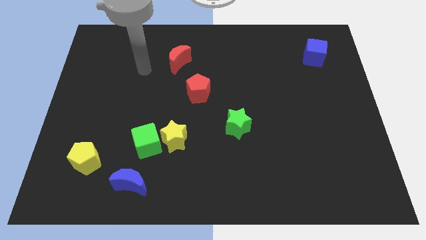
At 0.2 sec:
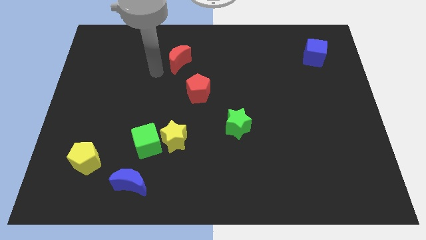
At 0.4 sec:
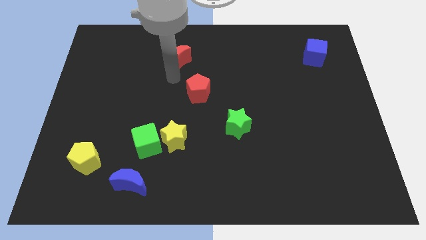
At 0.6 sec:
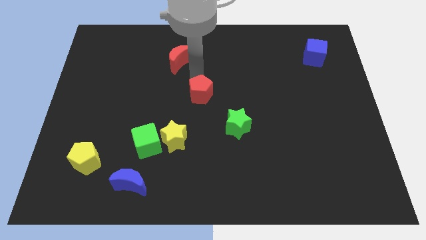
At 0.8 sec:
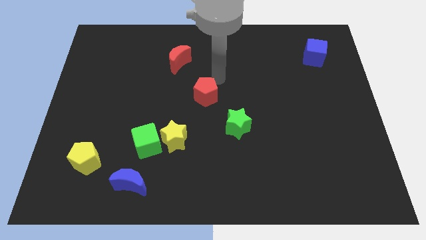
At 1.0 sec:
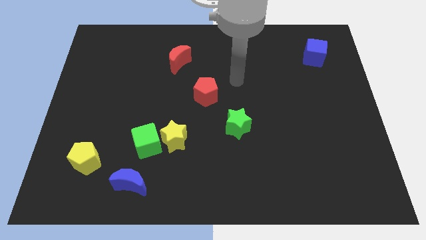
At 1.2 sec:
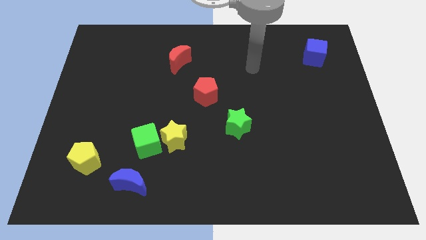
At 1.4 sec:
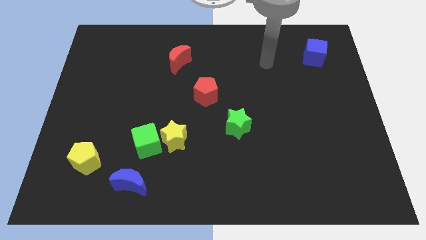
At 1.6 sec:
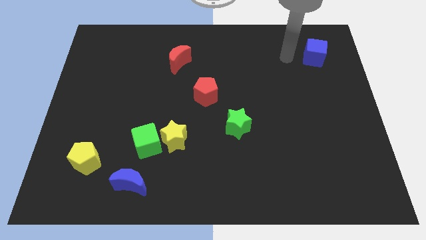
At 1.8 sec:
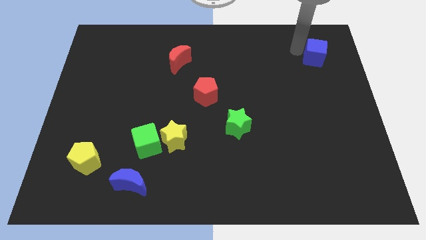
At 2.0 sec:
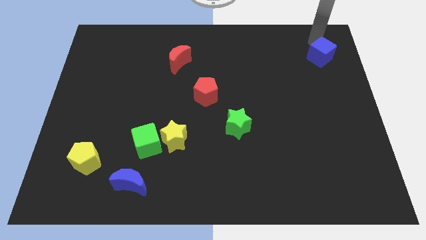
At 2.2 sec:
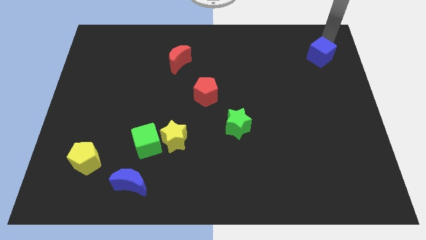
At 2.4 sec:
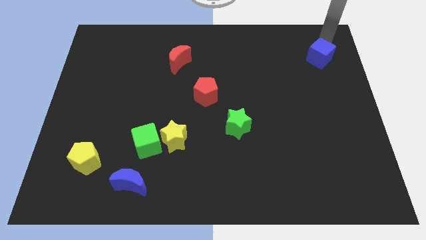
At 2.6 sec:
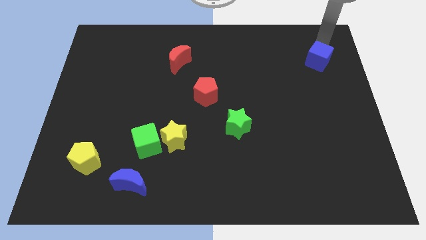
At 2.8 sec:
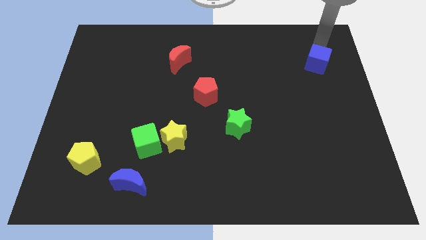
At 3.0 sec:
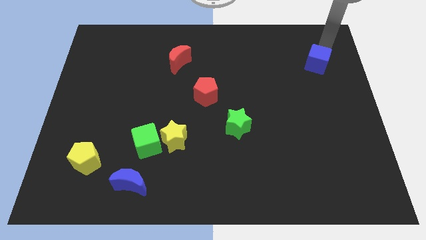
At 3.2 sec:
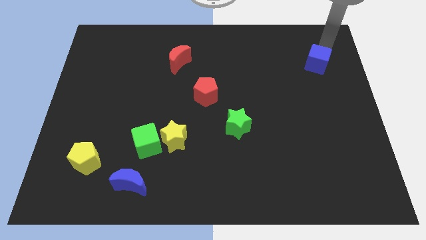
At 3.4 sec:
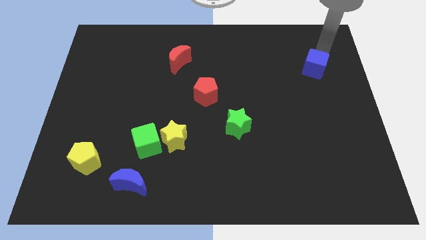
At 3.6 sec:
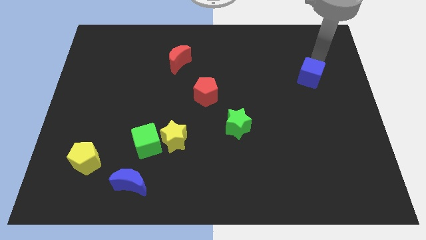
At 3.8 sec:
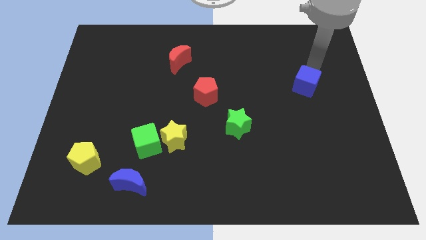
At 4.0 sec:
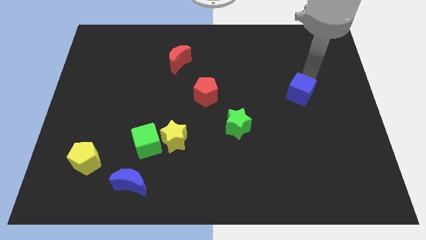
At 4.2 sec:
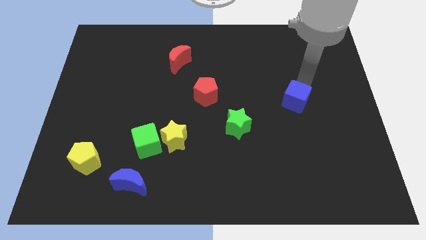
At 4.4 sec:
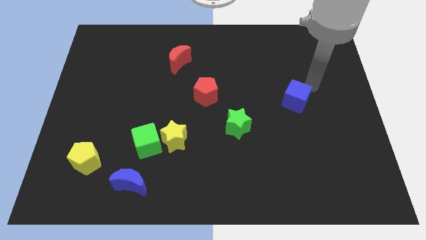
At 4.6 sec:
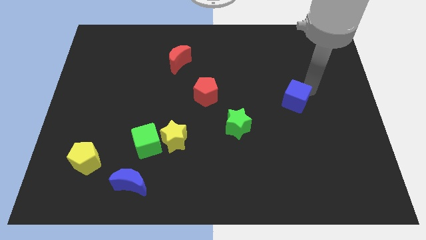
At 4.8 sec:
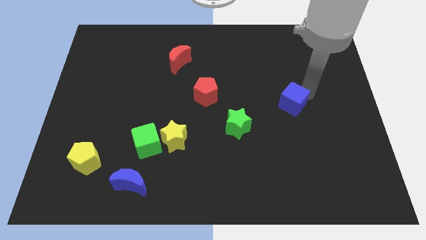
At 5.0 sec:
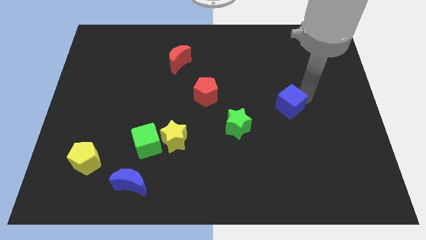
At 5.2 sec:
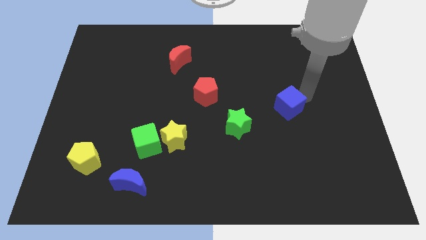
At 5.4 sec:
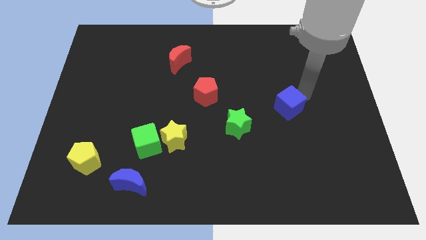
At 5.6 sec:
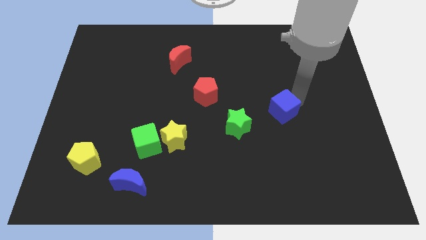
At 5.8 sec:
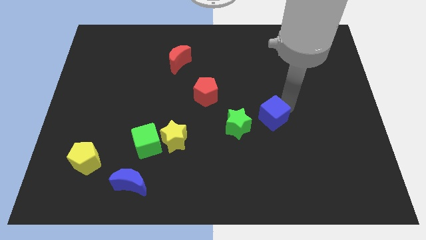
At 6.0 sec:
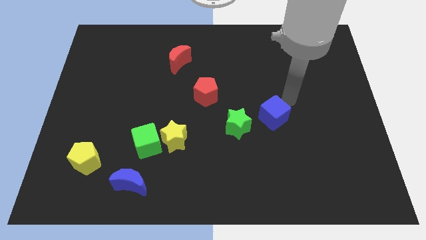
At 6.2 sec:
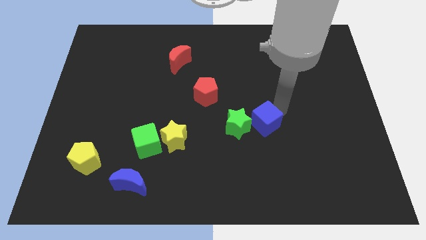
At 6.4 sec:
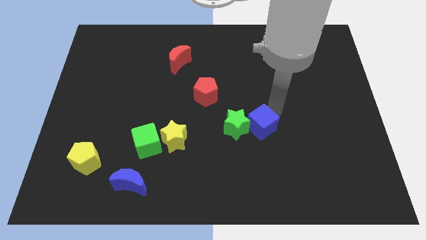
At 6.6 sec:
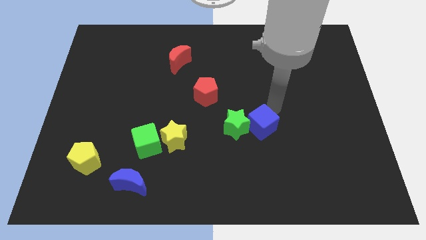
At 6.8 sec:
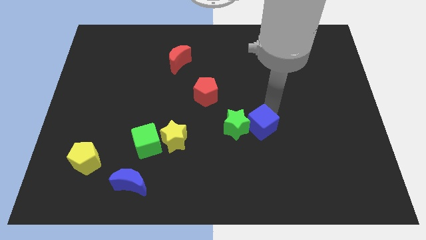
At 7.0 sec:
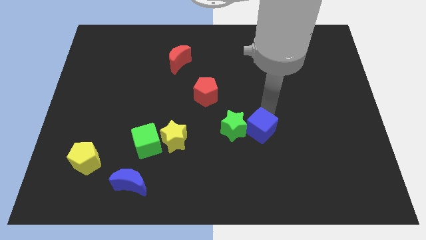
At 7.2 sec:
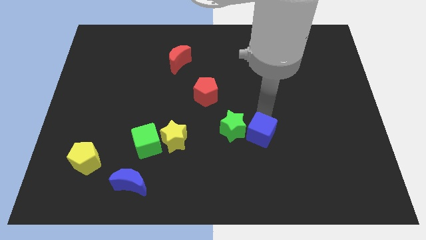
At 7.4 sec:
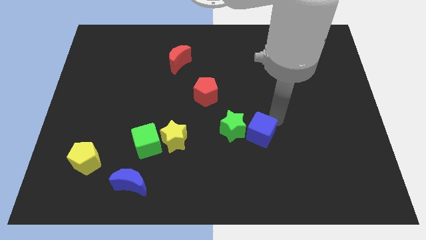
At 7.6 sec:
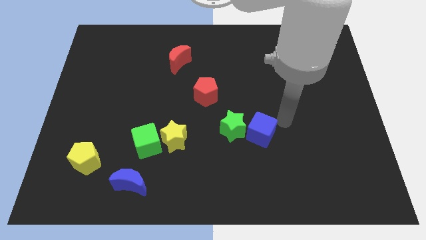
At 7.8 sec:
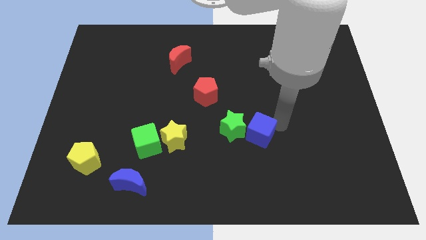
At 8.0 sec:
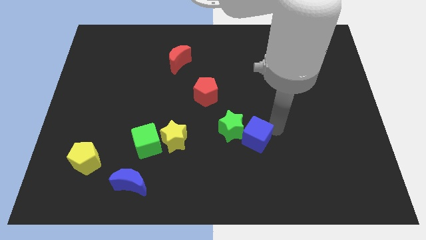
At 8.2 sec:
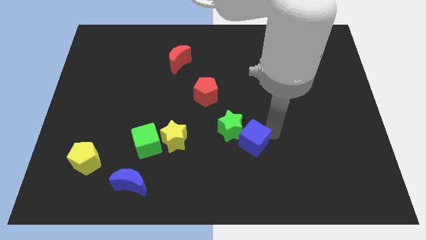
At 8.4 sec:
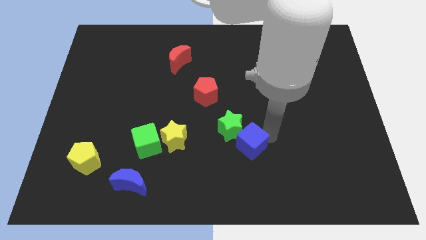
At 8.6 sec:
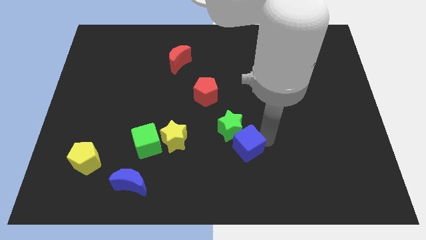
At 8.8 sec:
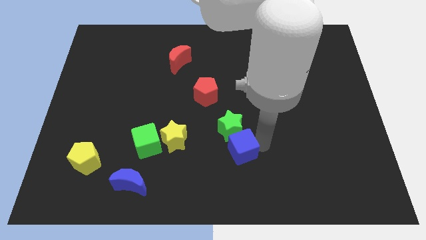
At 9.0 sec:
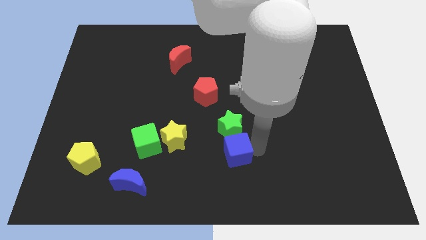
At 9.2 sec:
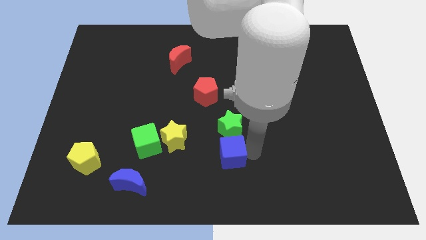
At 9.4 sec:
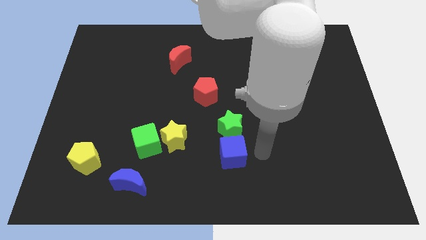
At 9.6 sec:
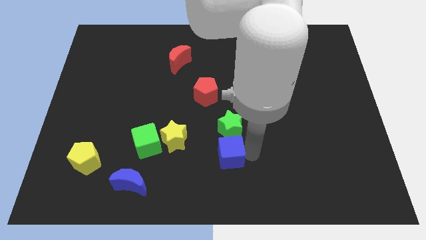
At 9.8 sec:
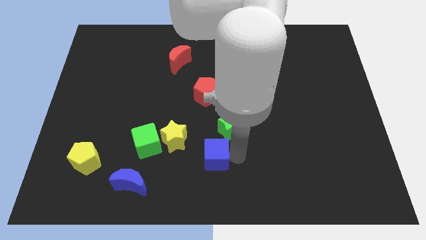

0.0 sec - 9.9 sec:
move the blue cube right of the green cube

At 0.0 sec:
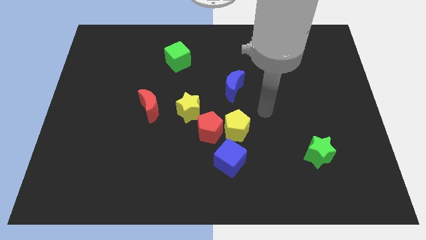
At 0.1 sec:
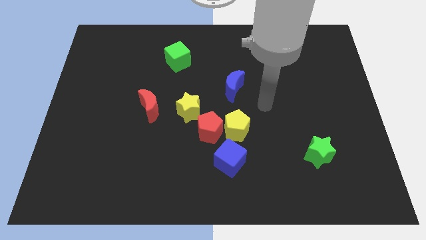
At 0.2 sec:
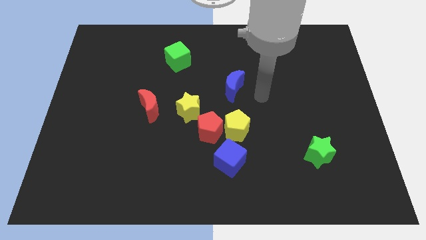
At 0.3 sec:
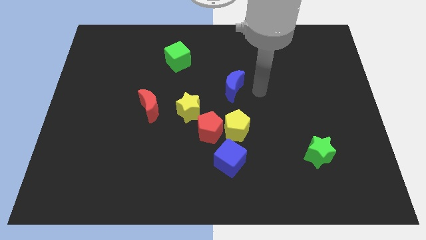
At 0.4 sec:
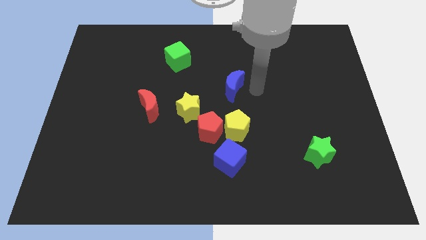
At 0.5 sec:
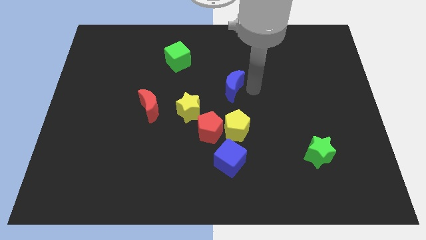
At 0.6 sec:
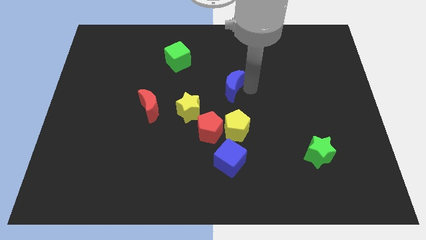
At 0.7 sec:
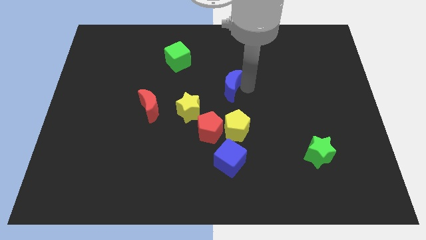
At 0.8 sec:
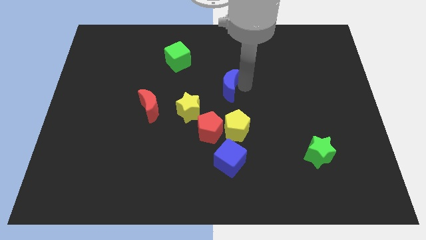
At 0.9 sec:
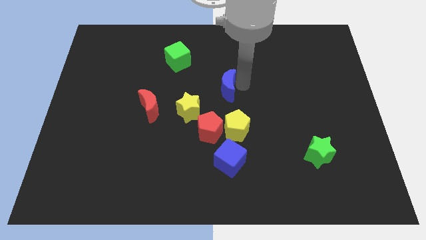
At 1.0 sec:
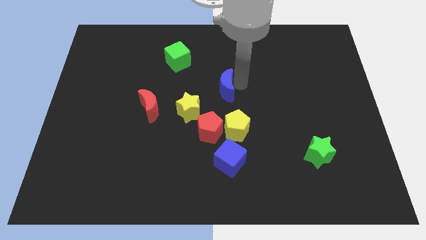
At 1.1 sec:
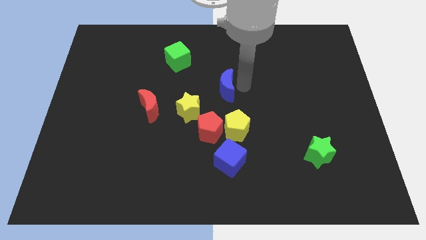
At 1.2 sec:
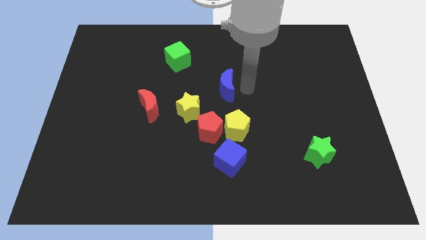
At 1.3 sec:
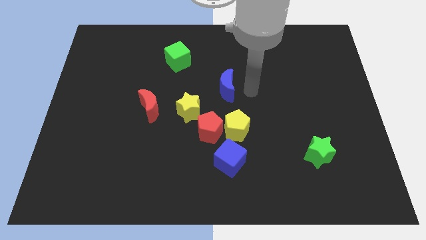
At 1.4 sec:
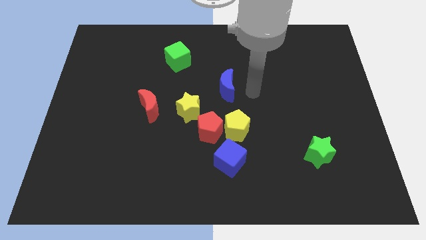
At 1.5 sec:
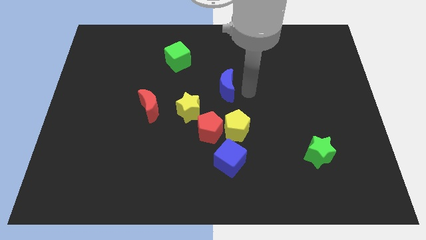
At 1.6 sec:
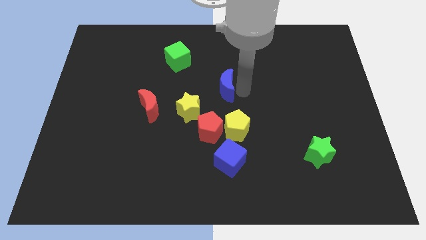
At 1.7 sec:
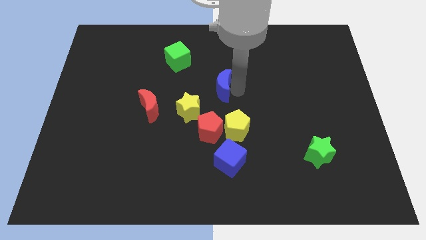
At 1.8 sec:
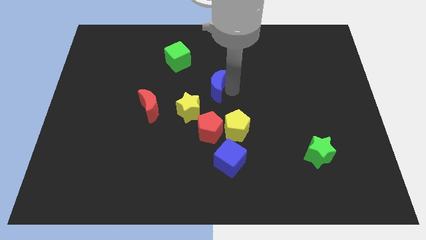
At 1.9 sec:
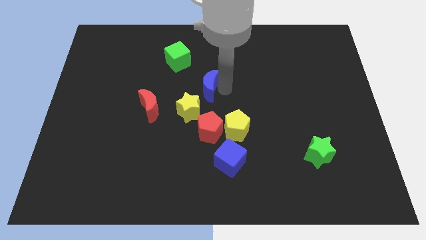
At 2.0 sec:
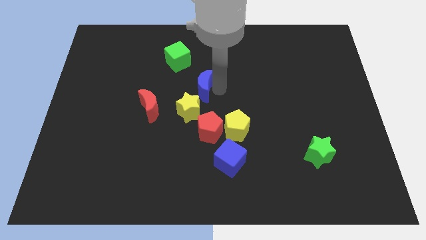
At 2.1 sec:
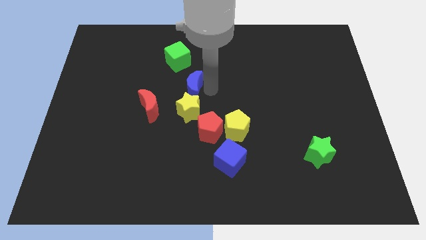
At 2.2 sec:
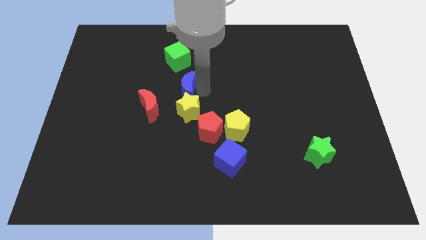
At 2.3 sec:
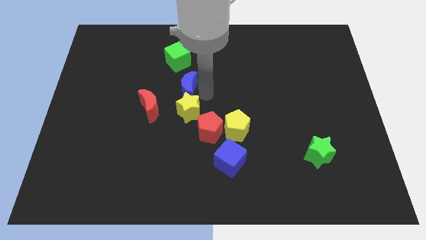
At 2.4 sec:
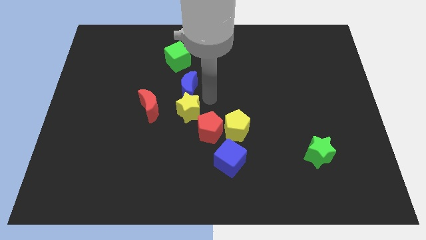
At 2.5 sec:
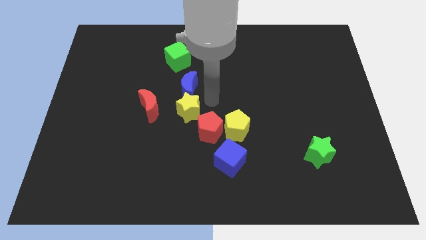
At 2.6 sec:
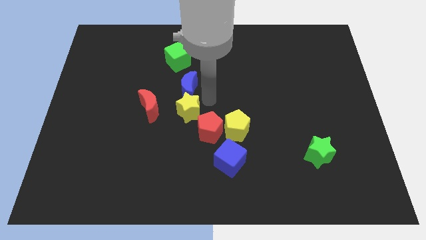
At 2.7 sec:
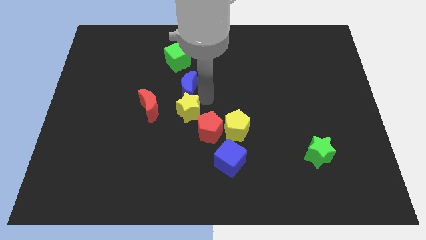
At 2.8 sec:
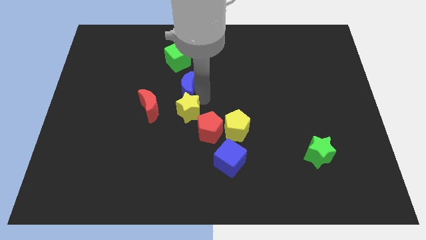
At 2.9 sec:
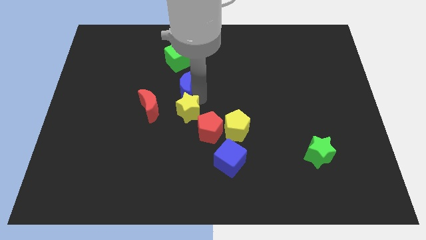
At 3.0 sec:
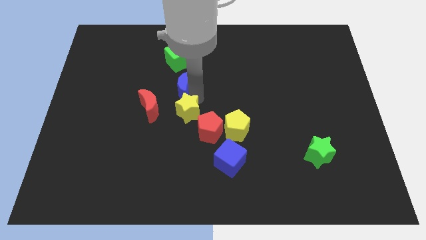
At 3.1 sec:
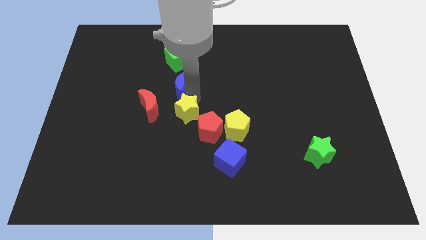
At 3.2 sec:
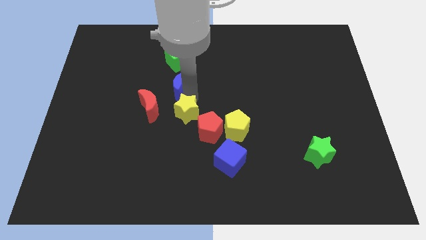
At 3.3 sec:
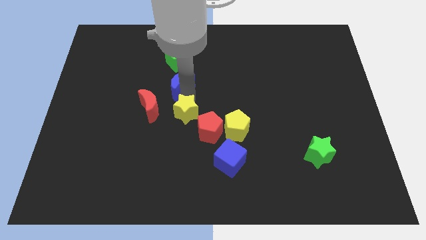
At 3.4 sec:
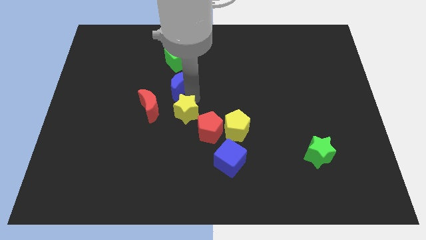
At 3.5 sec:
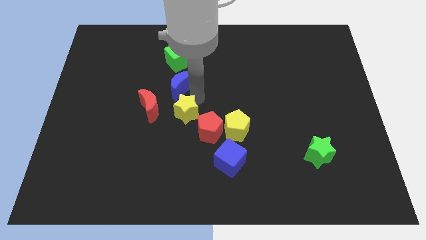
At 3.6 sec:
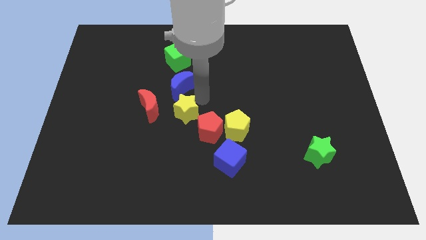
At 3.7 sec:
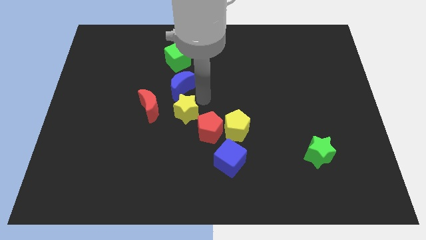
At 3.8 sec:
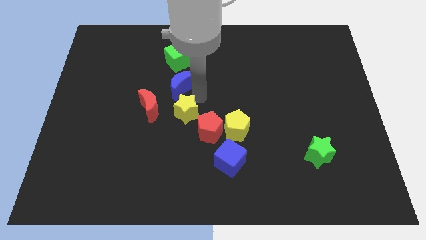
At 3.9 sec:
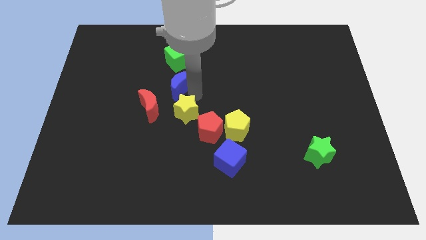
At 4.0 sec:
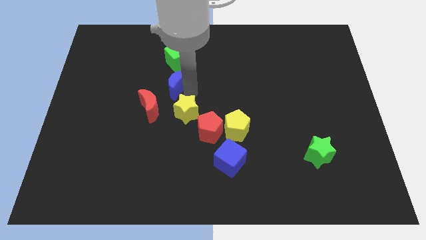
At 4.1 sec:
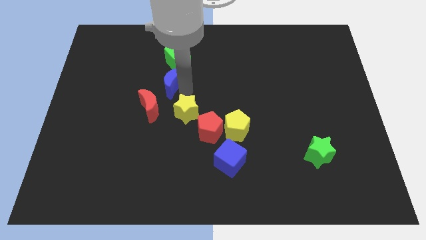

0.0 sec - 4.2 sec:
put the blue moon to the top side of the red moon
